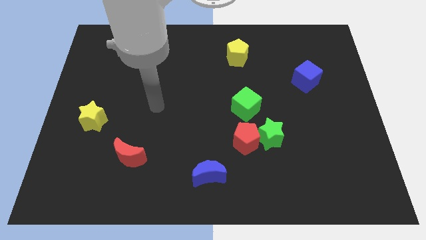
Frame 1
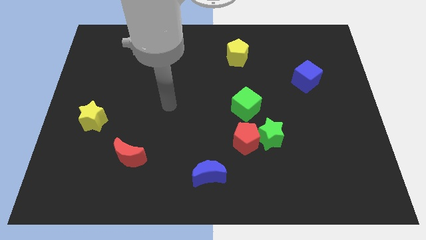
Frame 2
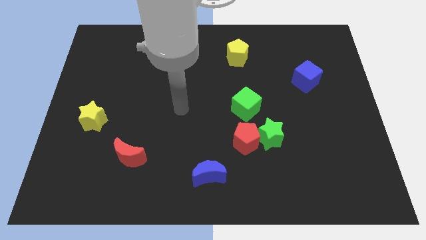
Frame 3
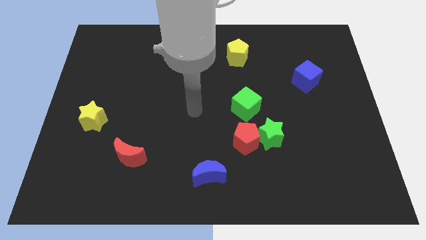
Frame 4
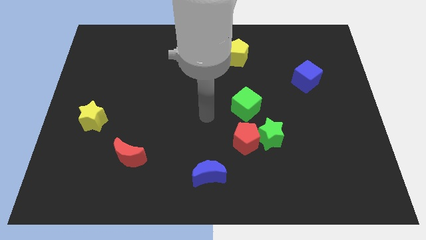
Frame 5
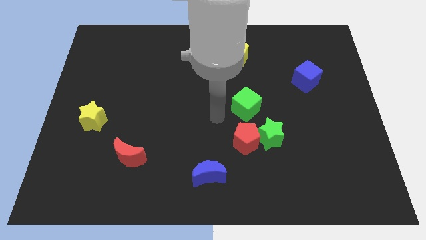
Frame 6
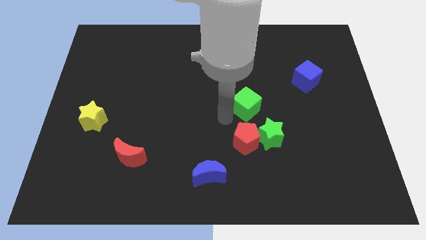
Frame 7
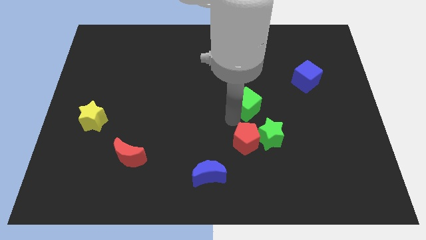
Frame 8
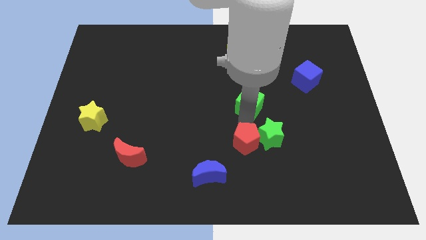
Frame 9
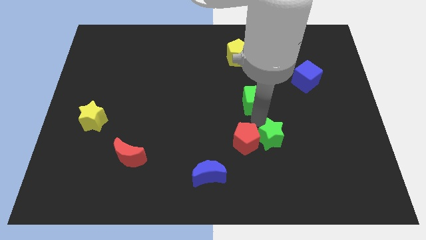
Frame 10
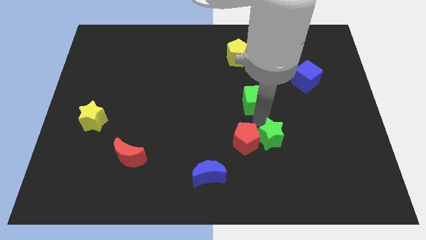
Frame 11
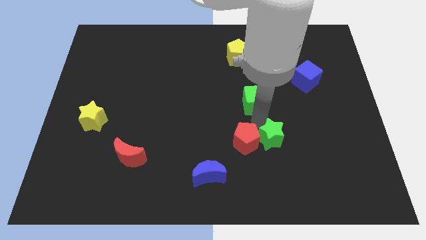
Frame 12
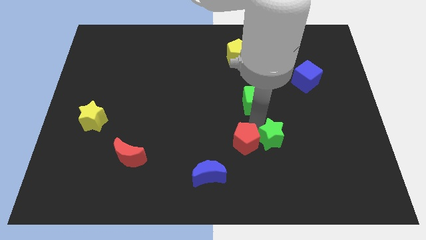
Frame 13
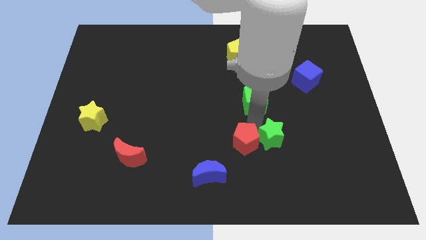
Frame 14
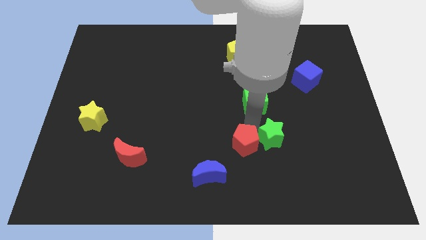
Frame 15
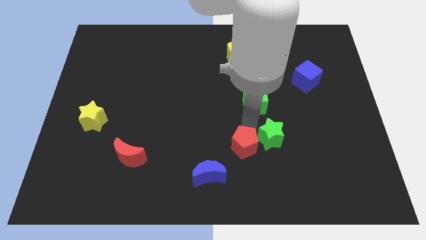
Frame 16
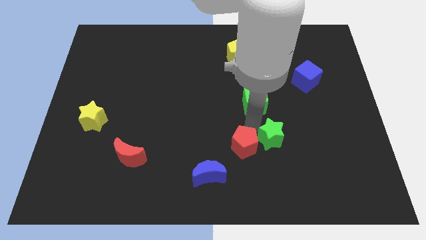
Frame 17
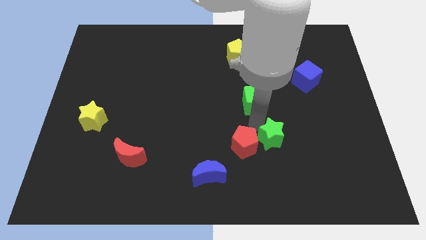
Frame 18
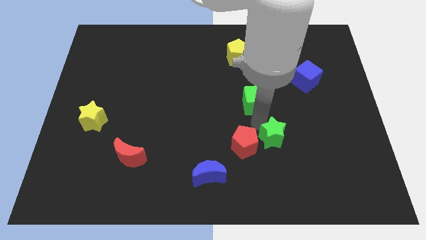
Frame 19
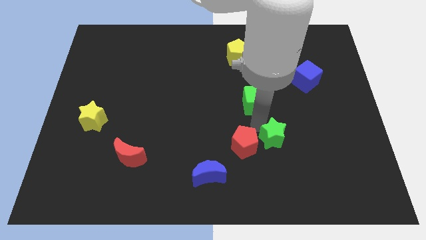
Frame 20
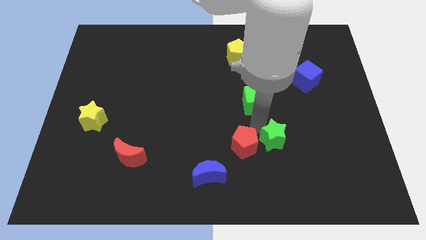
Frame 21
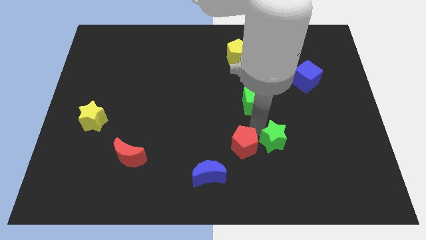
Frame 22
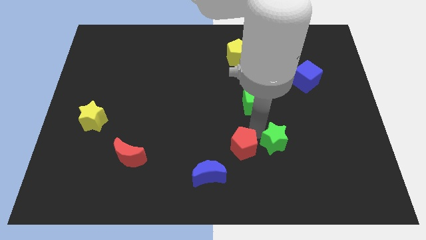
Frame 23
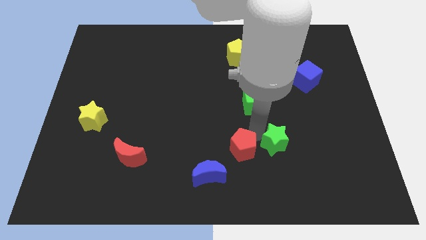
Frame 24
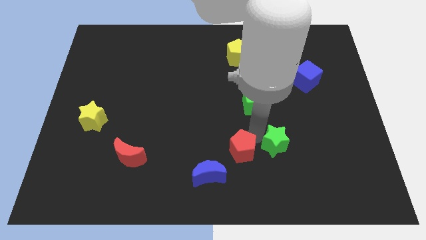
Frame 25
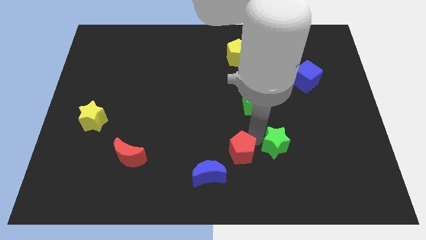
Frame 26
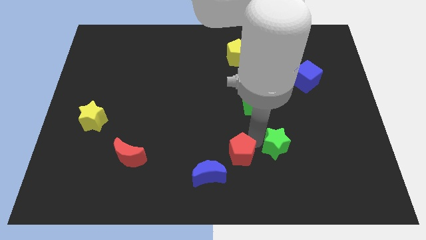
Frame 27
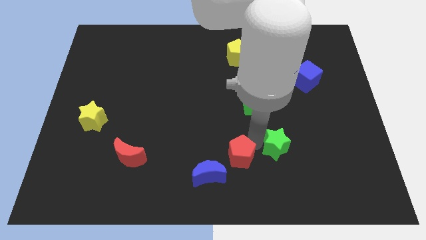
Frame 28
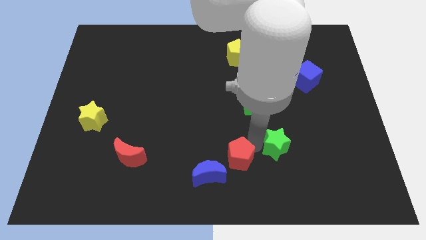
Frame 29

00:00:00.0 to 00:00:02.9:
separate the red pentagon from the green star and green cube

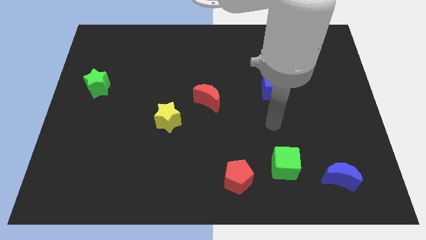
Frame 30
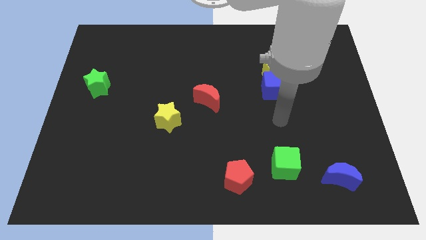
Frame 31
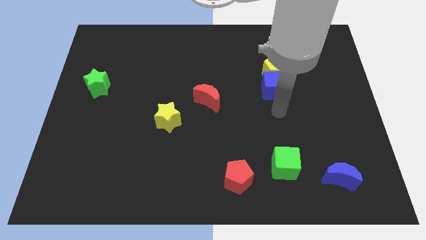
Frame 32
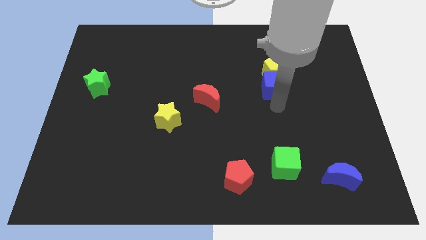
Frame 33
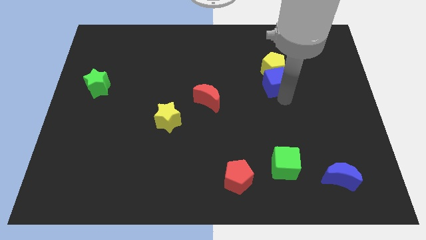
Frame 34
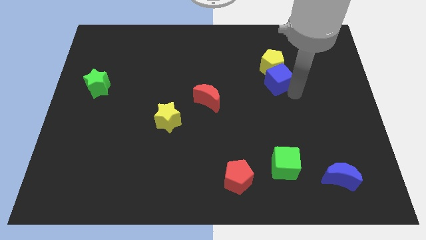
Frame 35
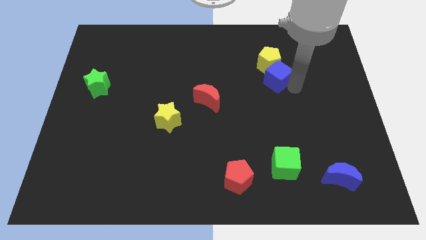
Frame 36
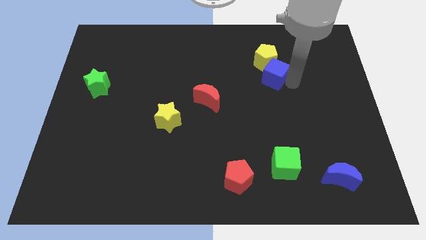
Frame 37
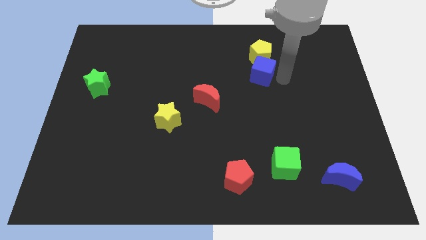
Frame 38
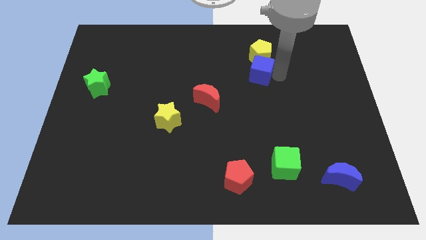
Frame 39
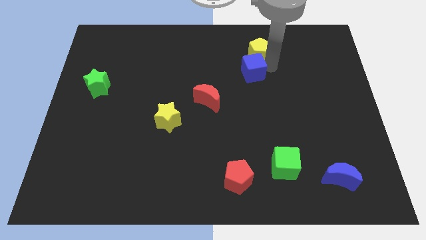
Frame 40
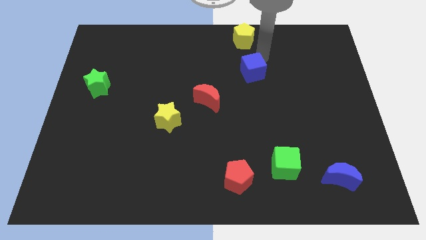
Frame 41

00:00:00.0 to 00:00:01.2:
pull the blue cube apart from the yellow pentagon

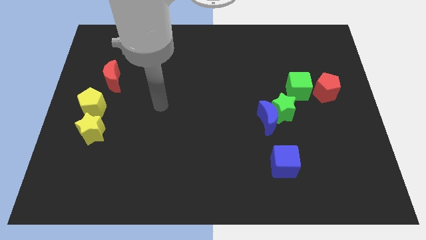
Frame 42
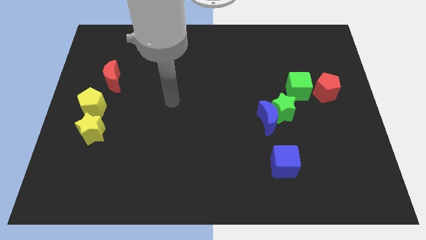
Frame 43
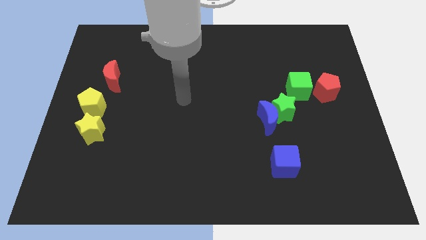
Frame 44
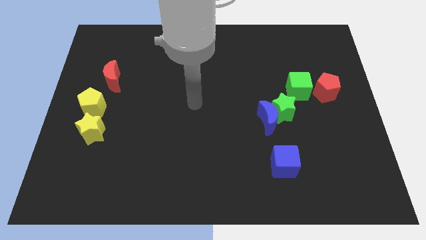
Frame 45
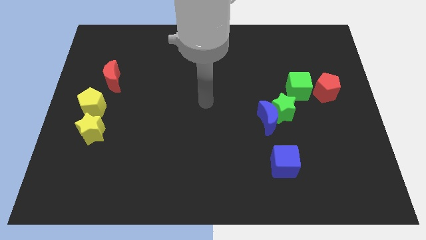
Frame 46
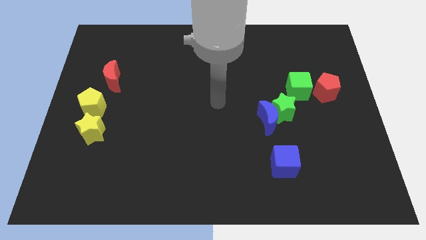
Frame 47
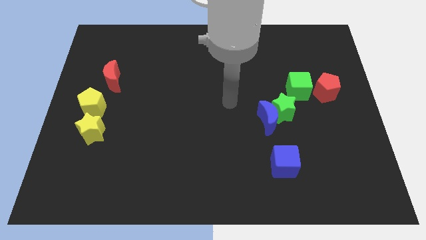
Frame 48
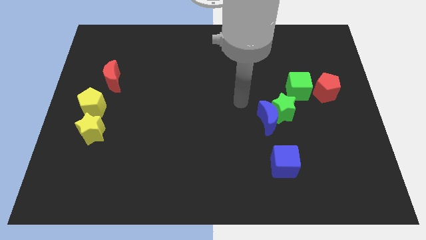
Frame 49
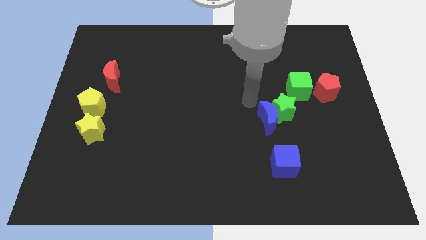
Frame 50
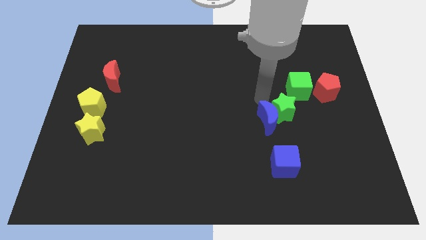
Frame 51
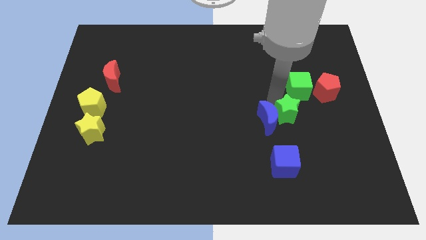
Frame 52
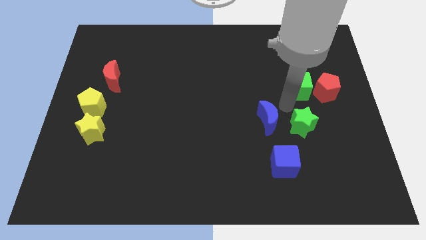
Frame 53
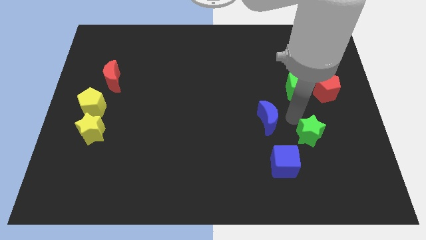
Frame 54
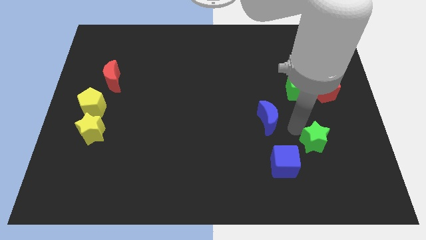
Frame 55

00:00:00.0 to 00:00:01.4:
move the blue moon away from the green star

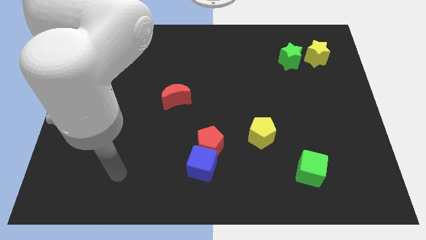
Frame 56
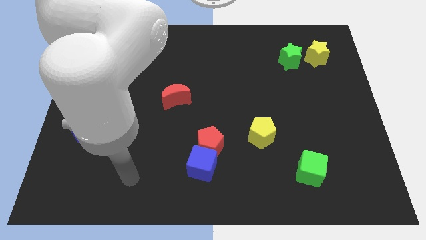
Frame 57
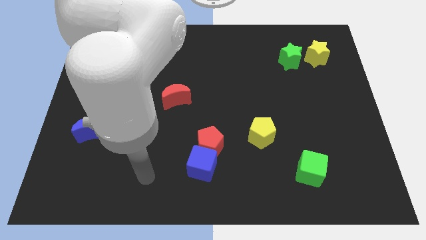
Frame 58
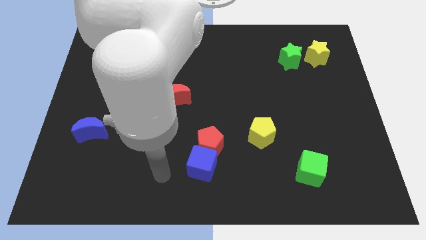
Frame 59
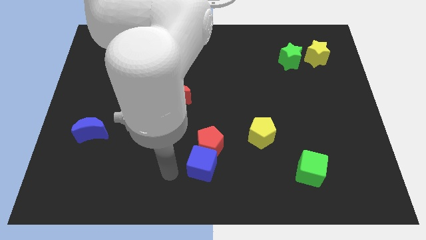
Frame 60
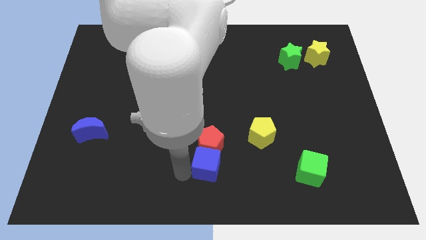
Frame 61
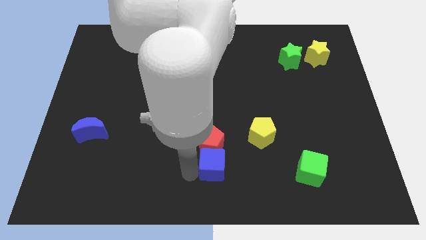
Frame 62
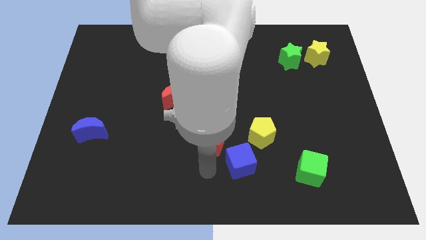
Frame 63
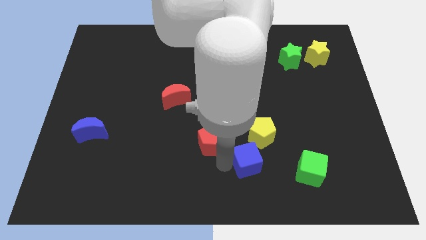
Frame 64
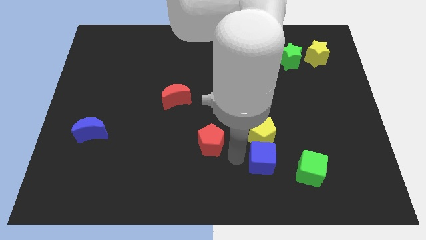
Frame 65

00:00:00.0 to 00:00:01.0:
move the red pentagon away from the blue cube

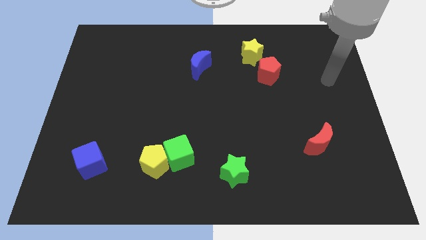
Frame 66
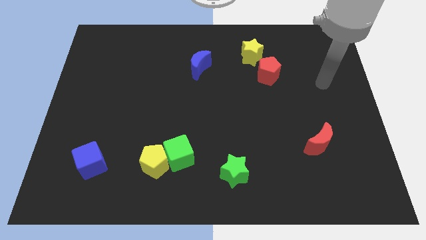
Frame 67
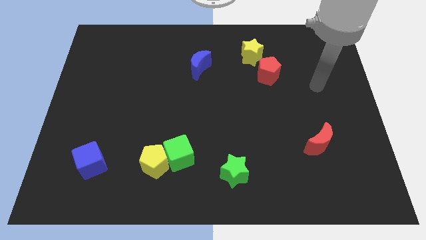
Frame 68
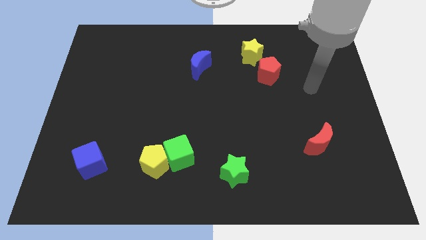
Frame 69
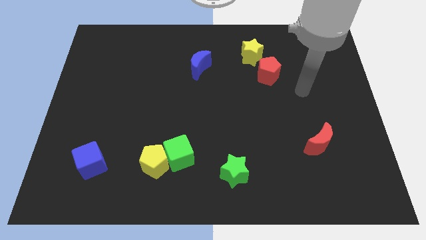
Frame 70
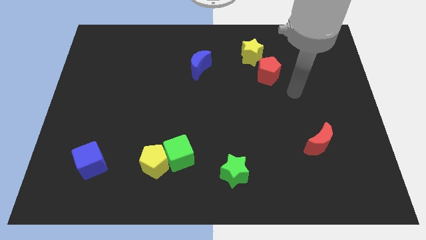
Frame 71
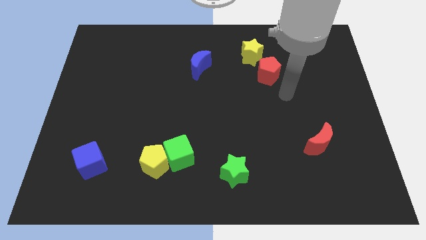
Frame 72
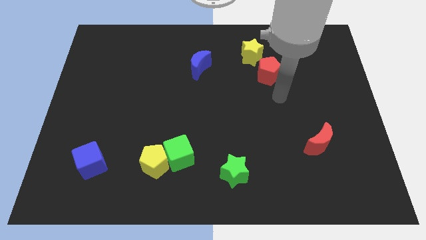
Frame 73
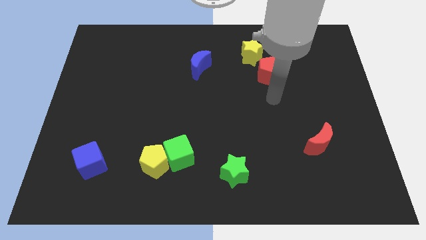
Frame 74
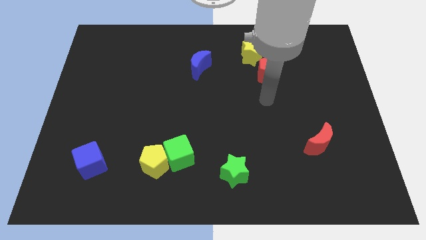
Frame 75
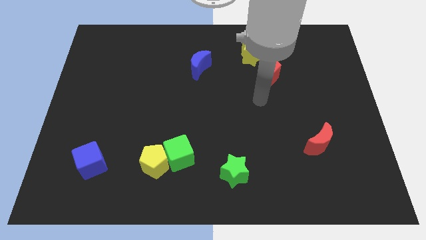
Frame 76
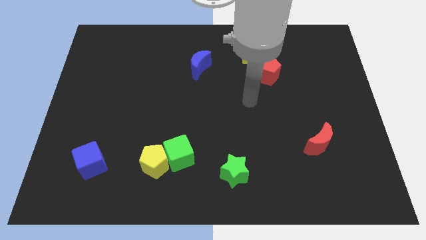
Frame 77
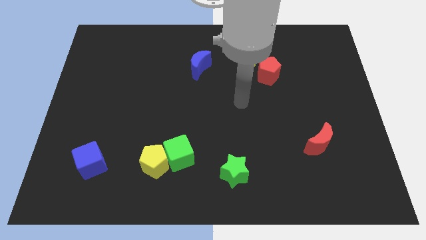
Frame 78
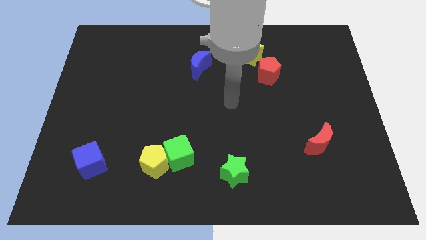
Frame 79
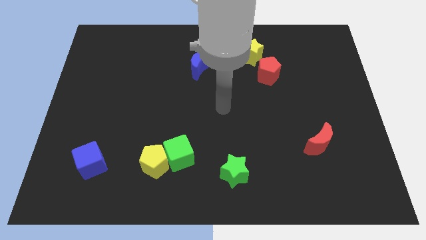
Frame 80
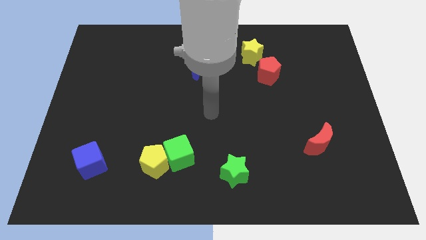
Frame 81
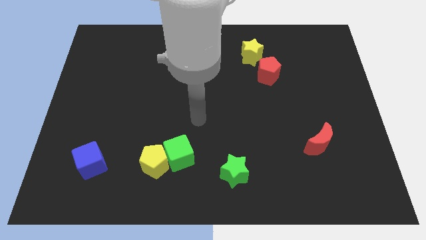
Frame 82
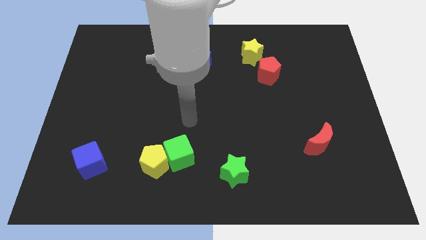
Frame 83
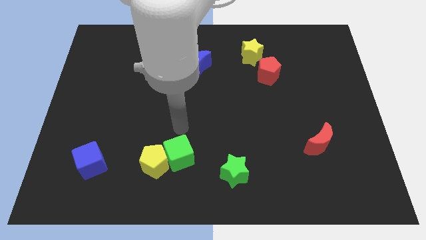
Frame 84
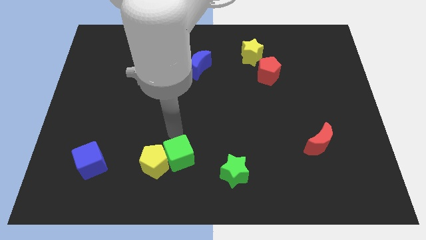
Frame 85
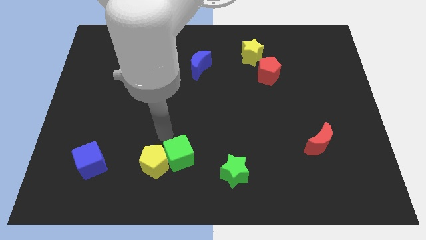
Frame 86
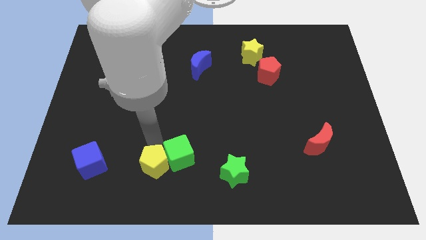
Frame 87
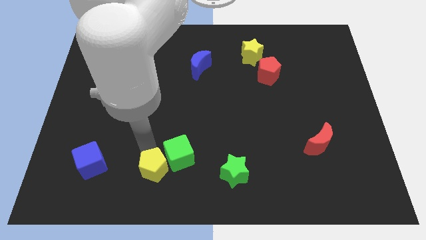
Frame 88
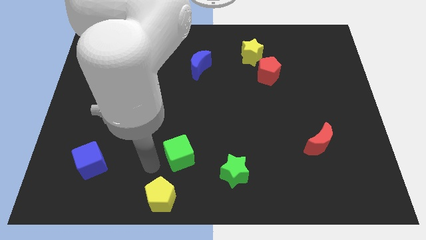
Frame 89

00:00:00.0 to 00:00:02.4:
separate the green cube from the yellow pentagon

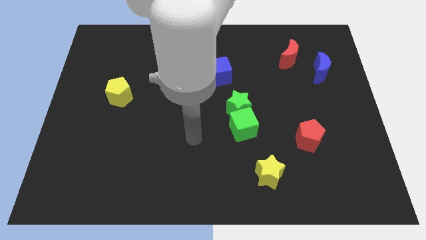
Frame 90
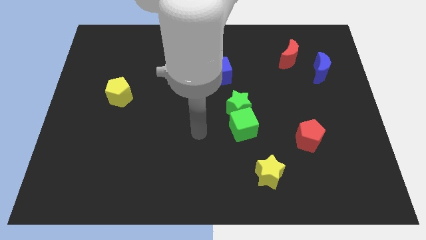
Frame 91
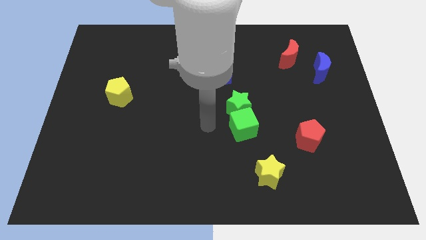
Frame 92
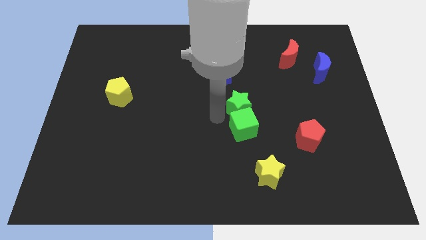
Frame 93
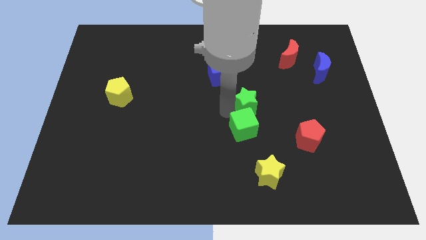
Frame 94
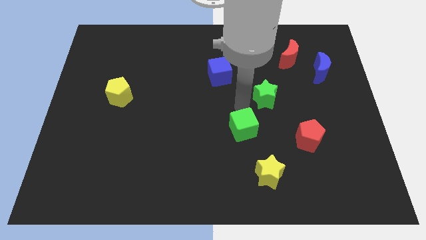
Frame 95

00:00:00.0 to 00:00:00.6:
move the green cube away from the green star

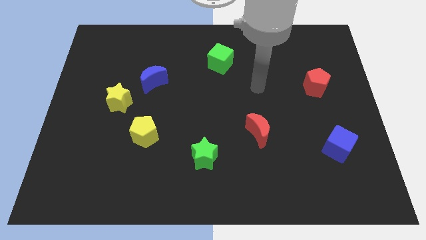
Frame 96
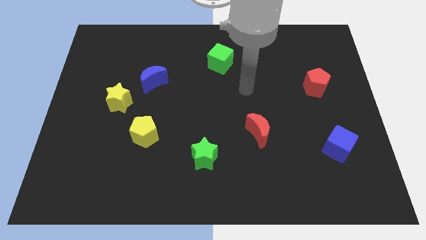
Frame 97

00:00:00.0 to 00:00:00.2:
pull the blue moon apart from the yellow star
